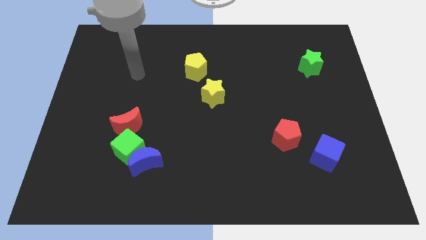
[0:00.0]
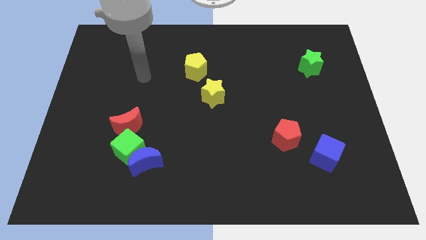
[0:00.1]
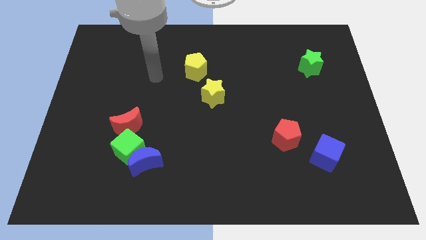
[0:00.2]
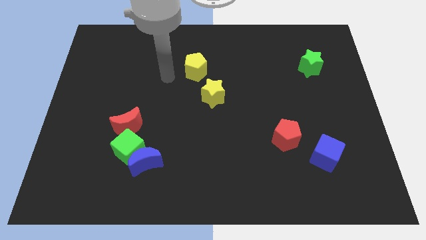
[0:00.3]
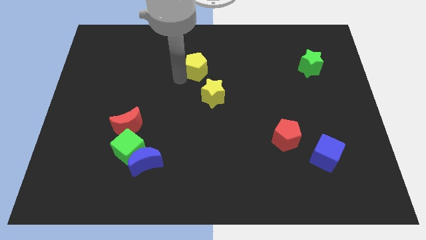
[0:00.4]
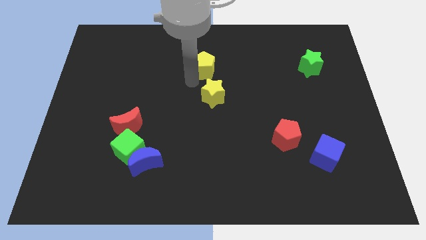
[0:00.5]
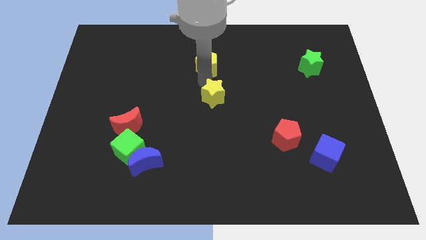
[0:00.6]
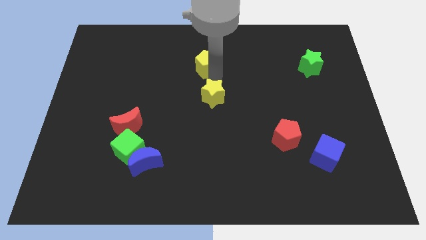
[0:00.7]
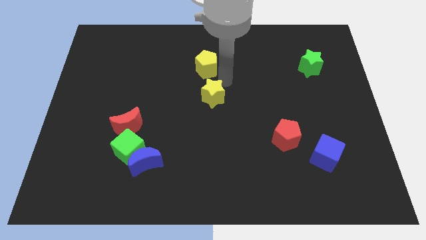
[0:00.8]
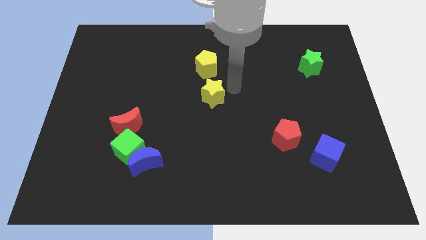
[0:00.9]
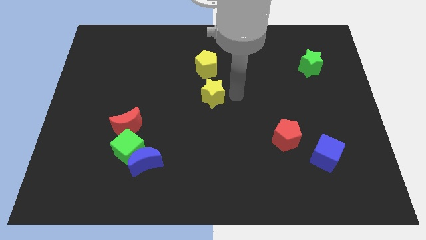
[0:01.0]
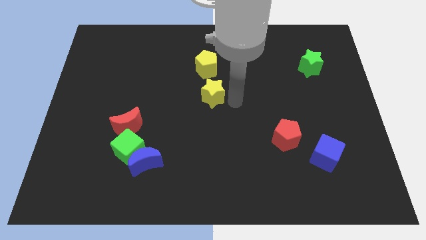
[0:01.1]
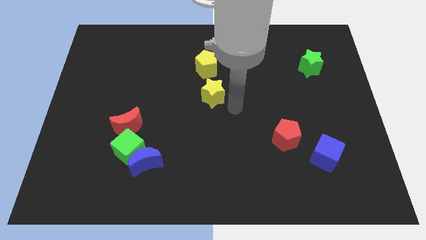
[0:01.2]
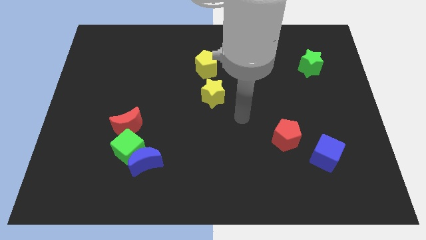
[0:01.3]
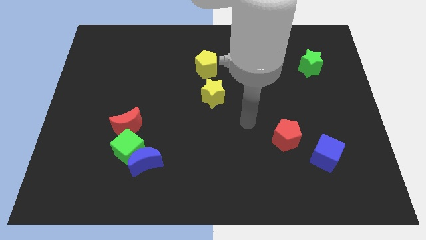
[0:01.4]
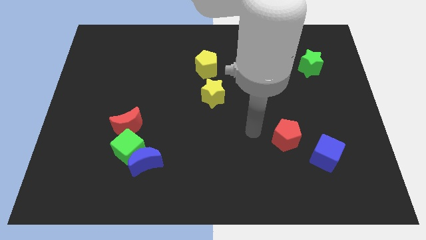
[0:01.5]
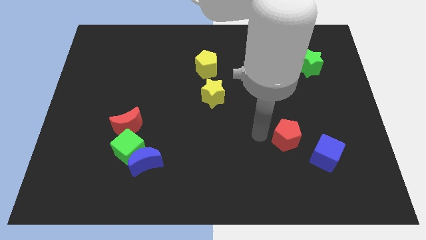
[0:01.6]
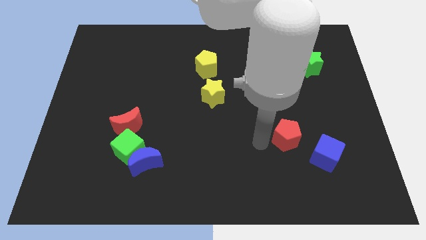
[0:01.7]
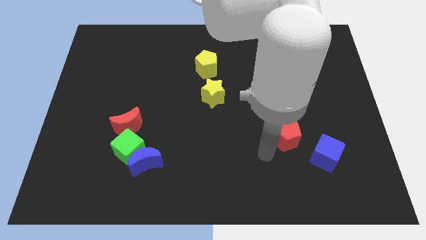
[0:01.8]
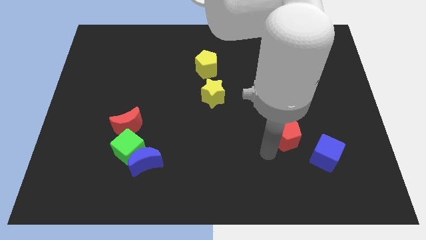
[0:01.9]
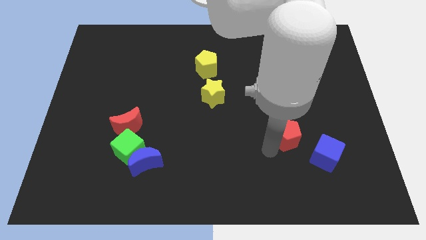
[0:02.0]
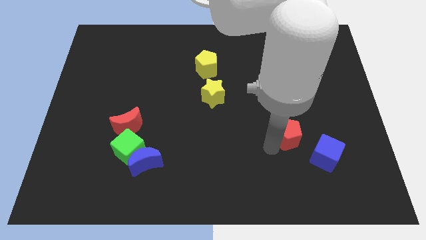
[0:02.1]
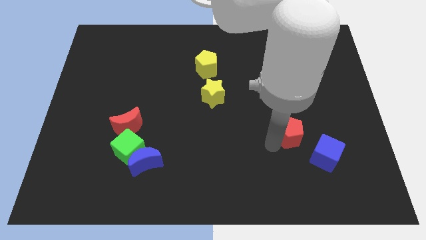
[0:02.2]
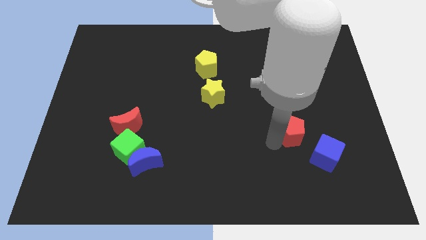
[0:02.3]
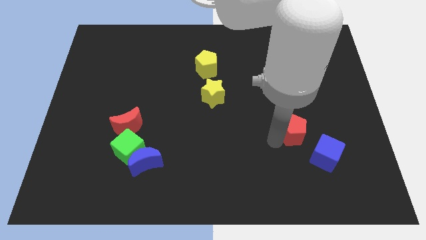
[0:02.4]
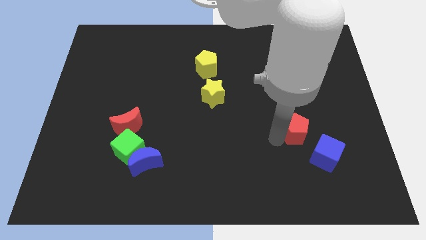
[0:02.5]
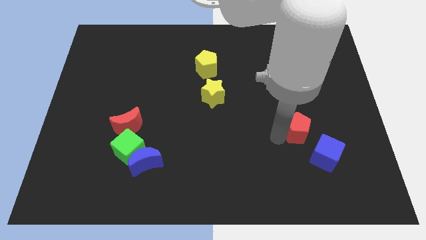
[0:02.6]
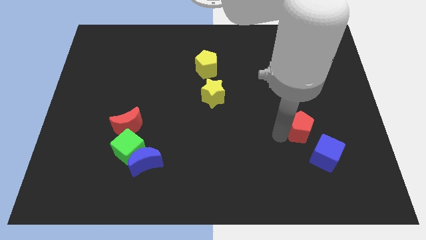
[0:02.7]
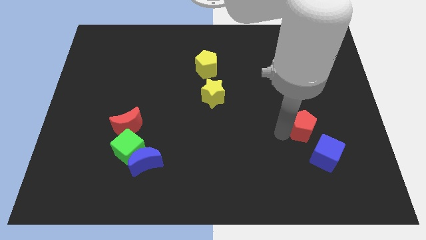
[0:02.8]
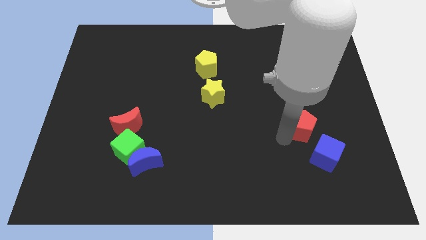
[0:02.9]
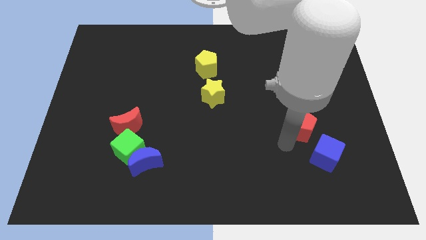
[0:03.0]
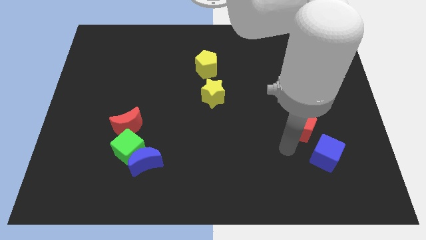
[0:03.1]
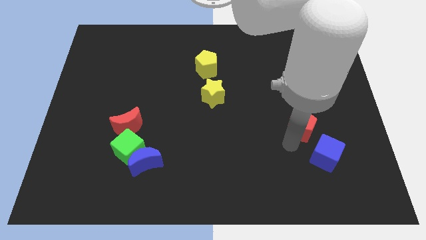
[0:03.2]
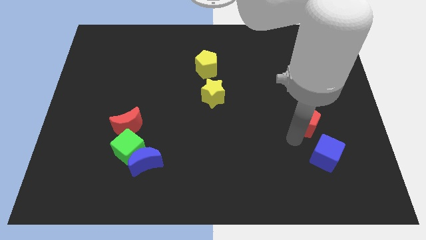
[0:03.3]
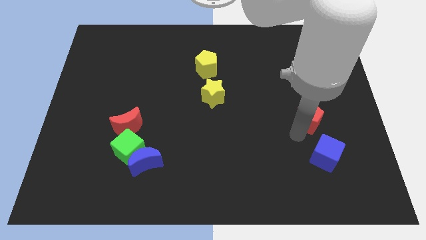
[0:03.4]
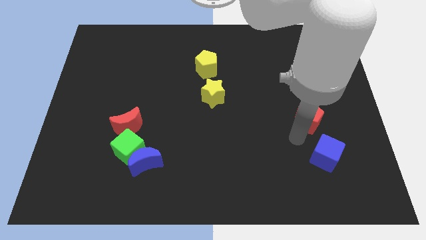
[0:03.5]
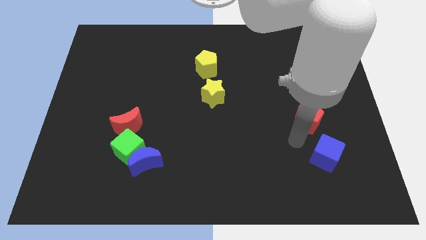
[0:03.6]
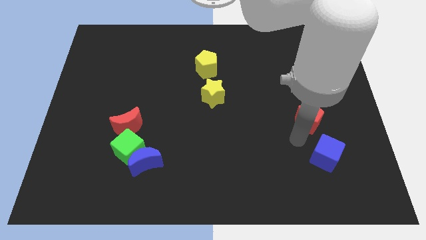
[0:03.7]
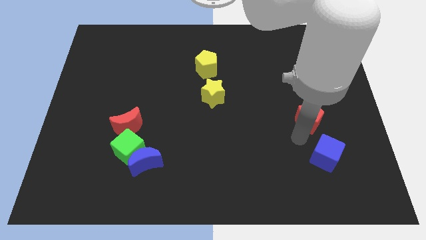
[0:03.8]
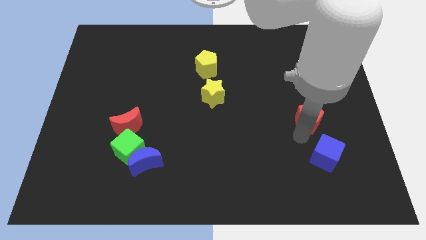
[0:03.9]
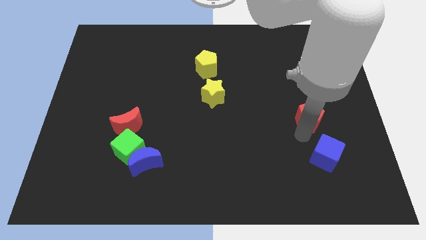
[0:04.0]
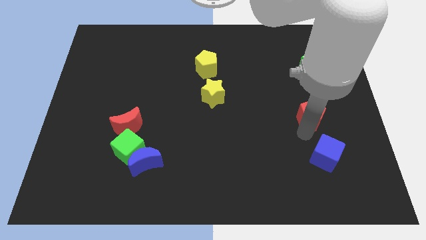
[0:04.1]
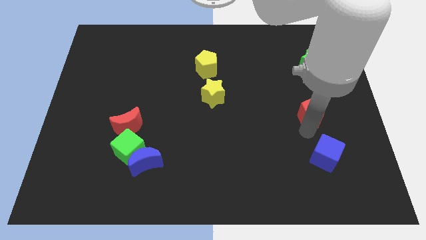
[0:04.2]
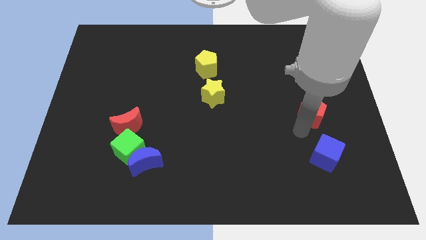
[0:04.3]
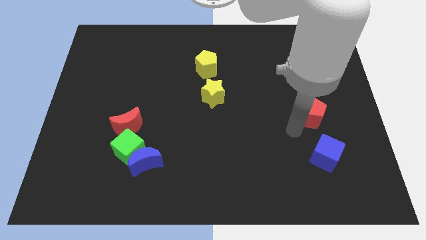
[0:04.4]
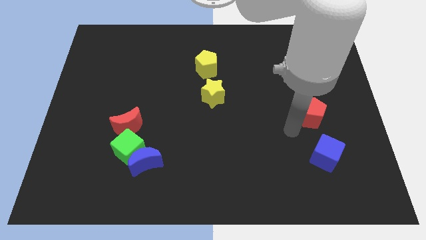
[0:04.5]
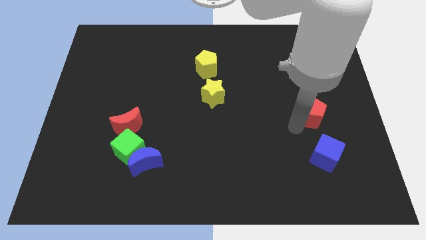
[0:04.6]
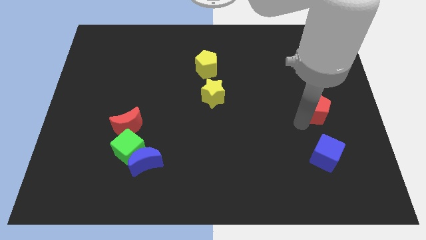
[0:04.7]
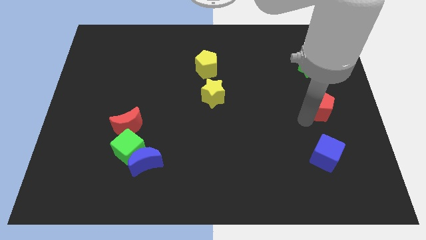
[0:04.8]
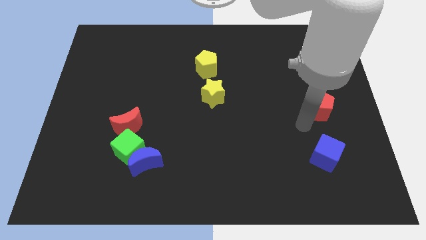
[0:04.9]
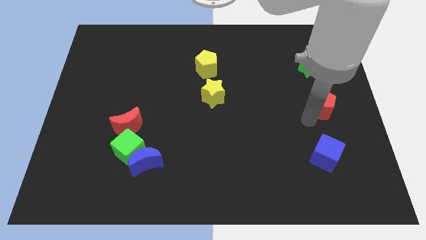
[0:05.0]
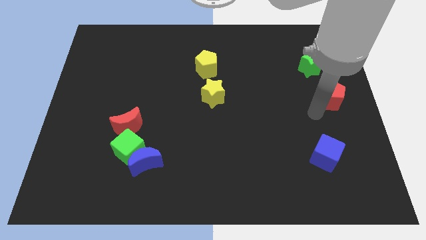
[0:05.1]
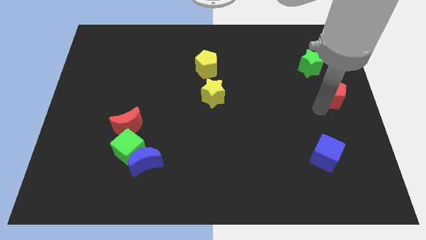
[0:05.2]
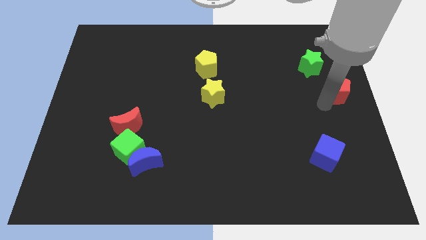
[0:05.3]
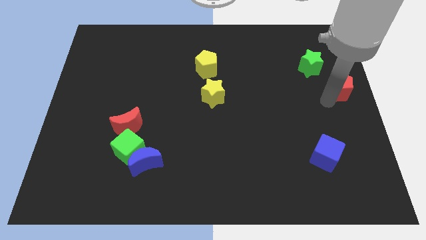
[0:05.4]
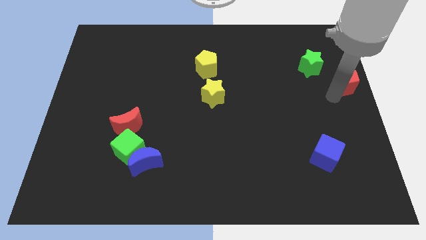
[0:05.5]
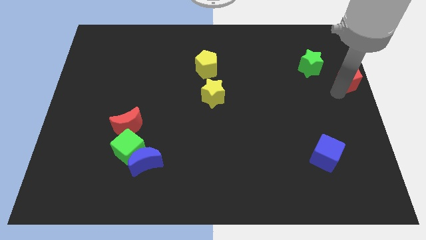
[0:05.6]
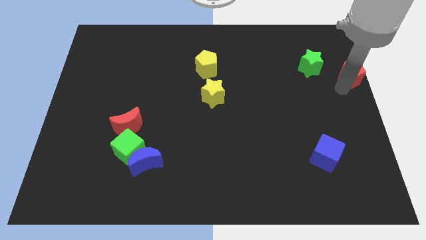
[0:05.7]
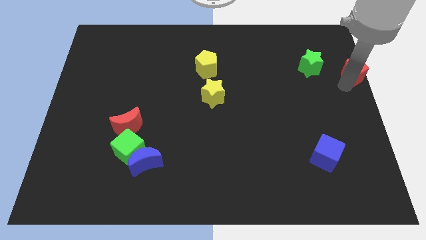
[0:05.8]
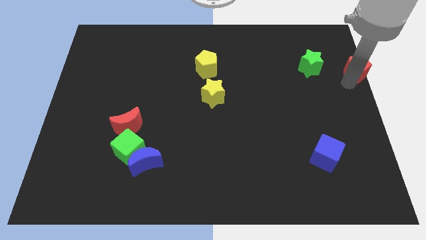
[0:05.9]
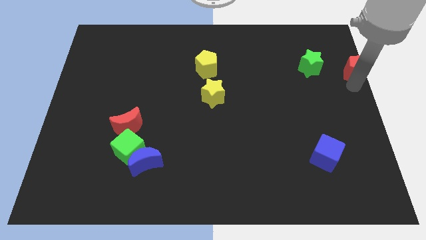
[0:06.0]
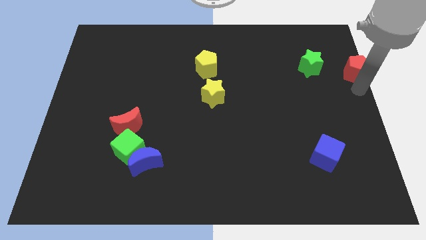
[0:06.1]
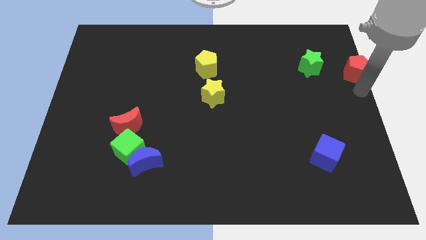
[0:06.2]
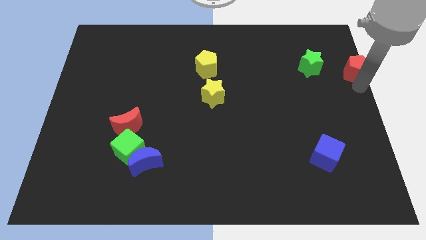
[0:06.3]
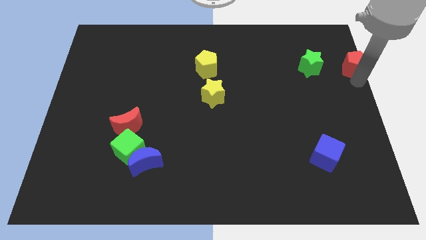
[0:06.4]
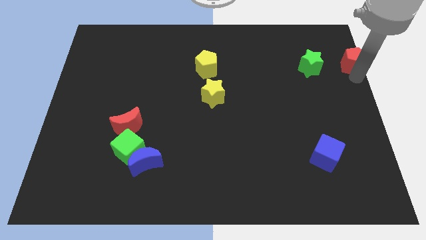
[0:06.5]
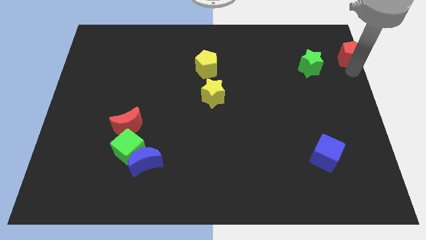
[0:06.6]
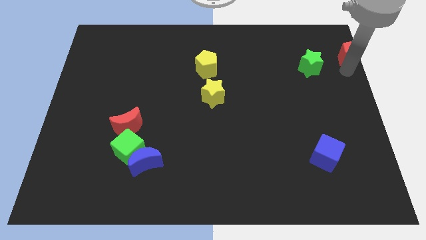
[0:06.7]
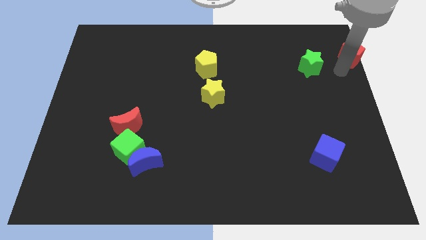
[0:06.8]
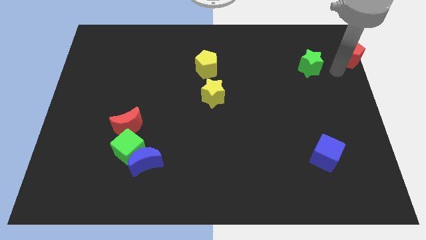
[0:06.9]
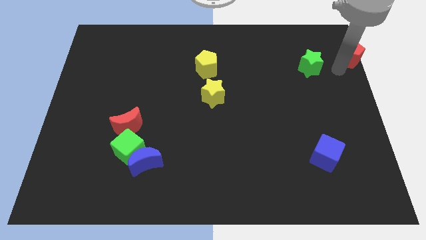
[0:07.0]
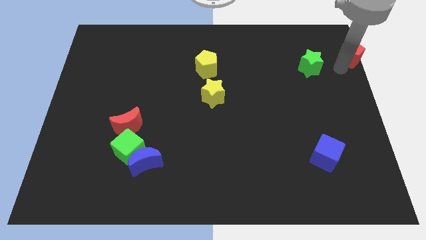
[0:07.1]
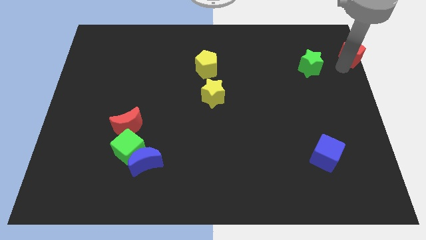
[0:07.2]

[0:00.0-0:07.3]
put the red pentagon to the top right of the board
